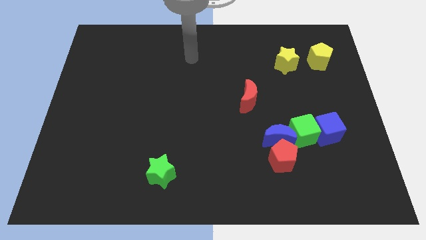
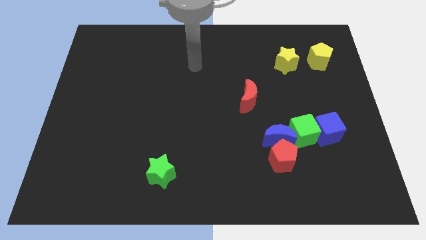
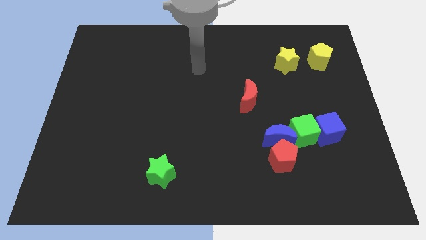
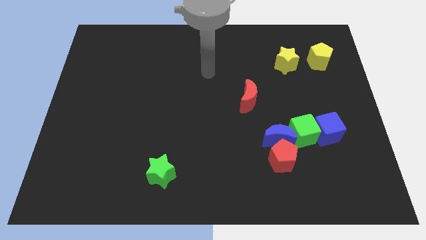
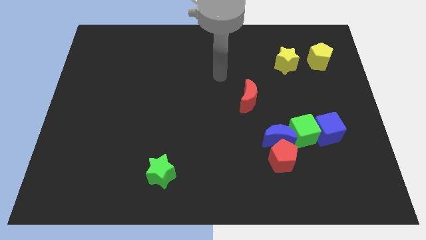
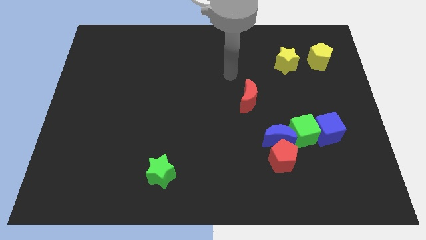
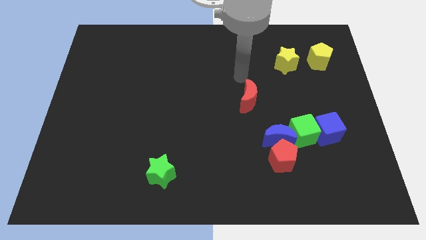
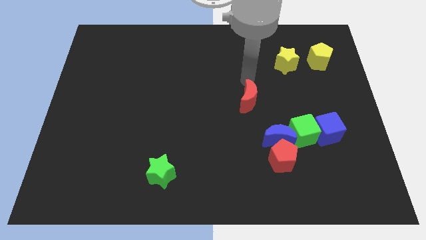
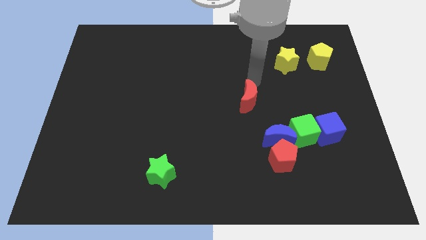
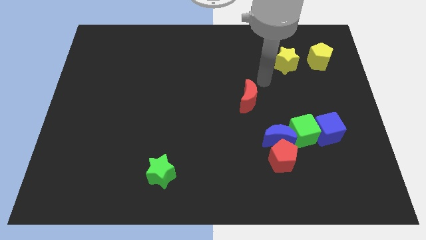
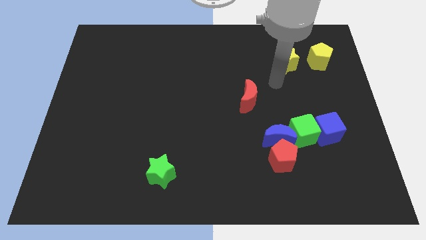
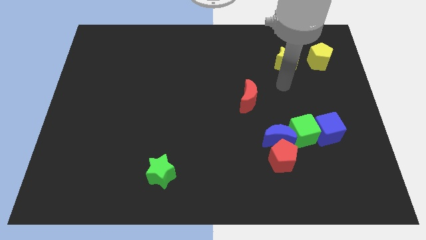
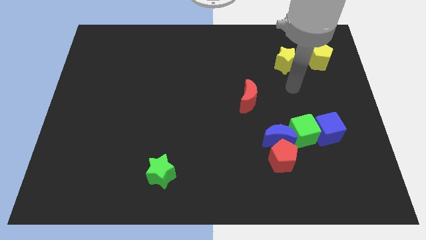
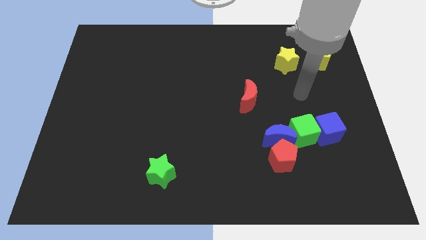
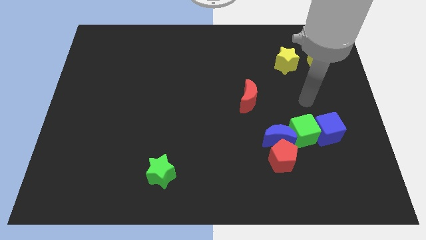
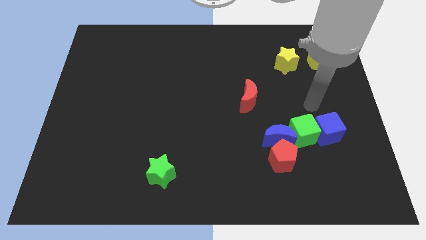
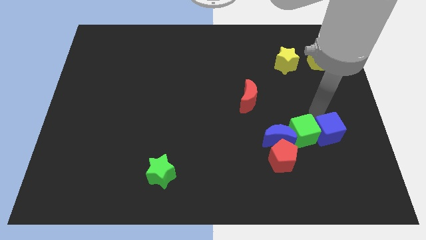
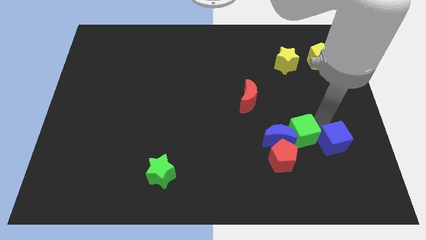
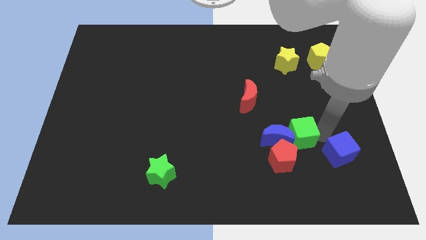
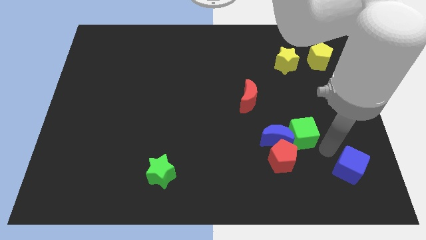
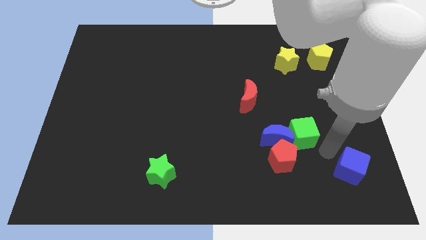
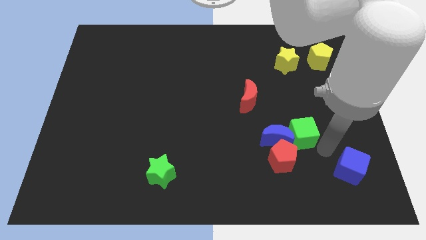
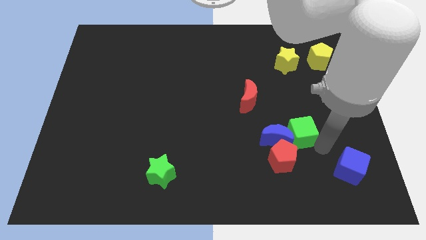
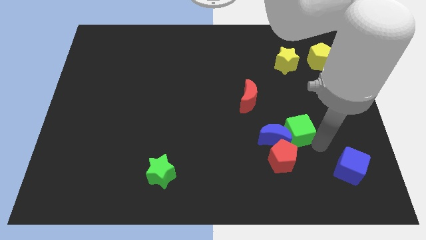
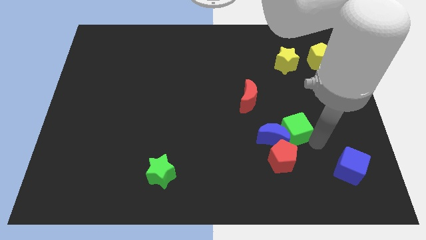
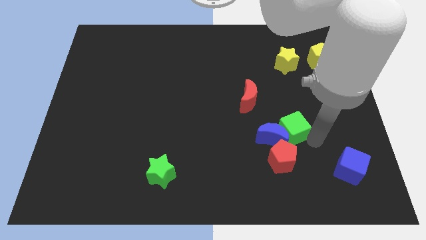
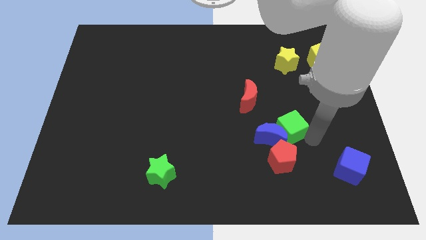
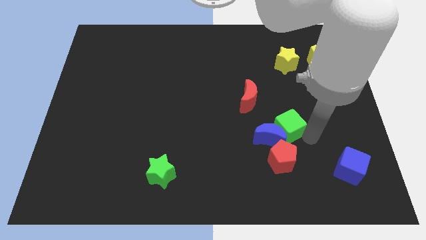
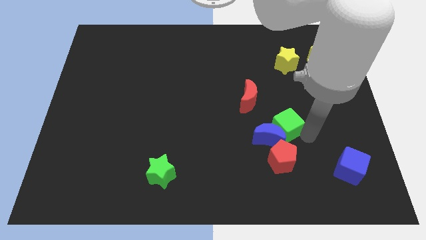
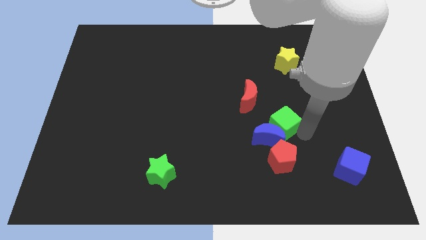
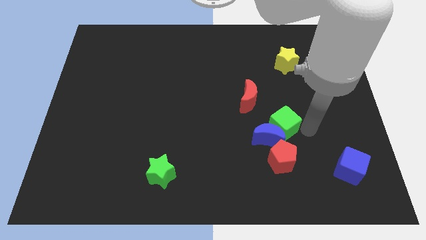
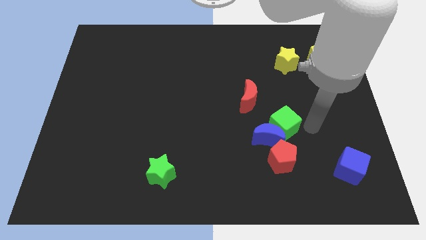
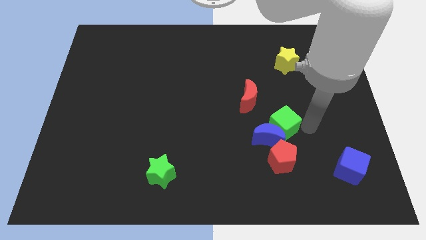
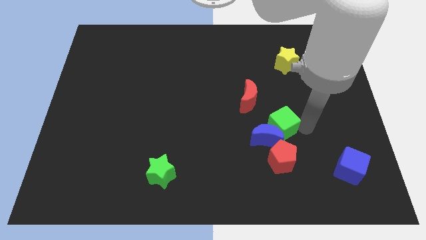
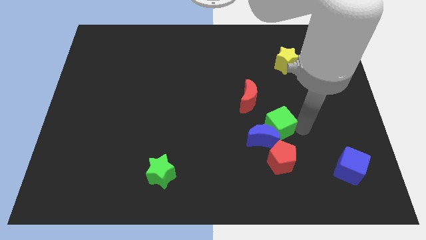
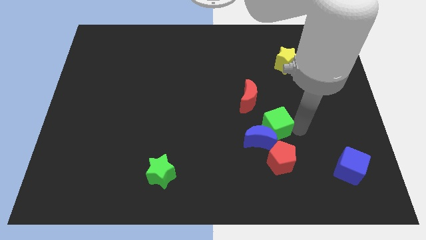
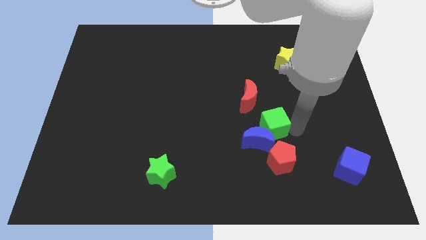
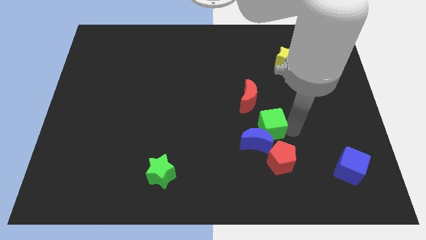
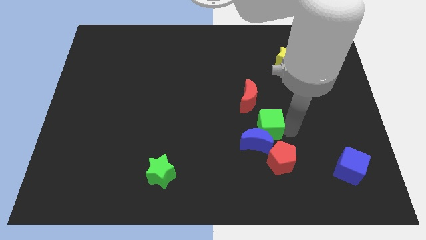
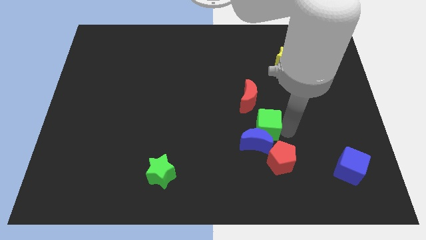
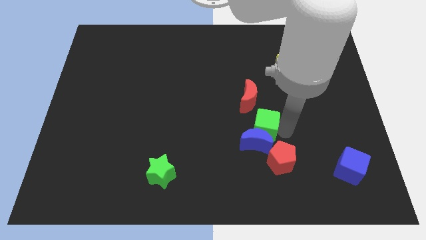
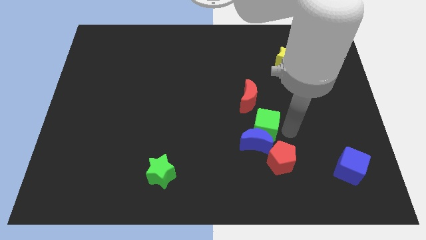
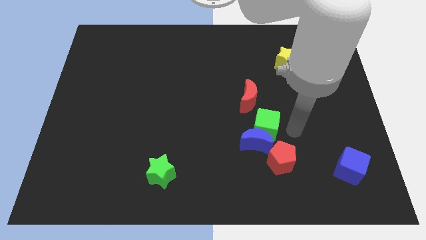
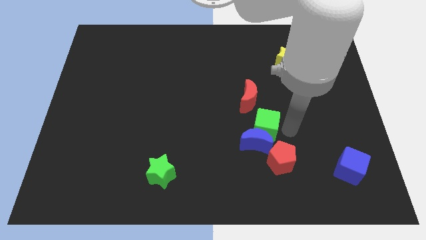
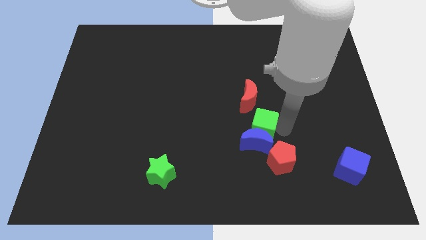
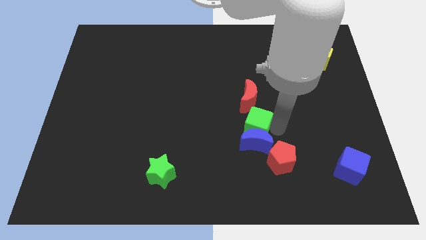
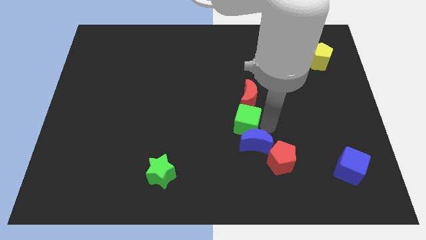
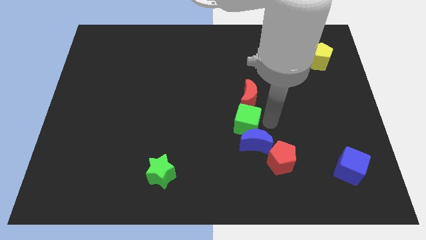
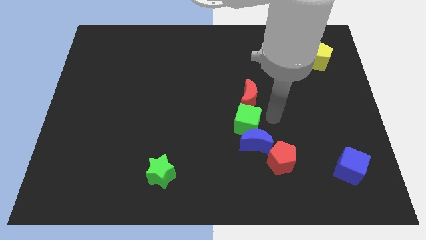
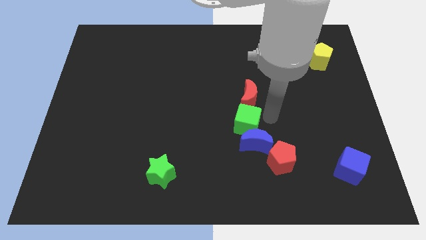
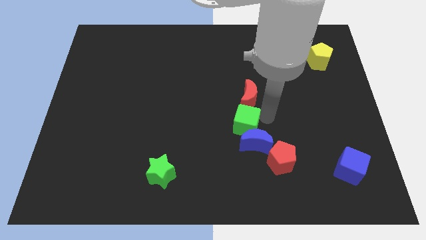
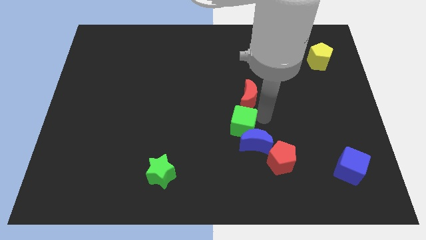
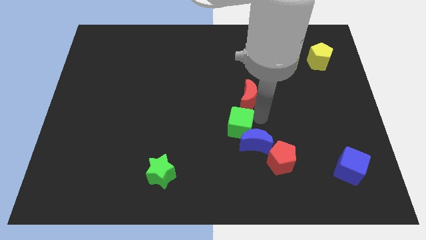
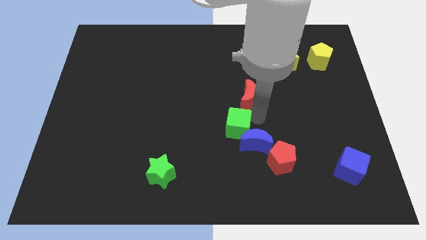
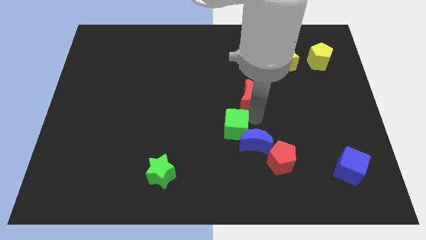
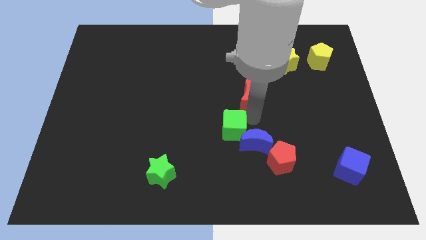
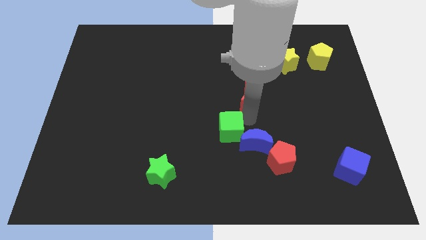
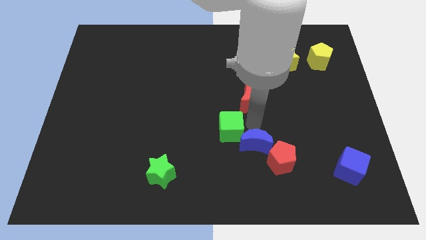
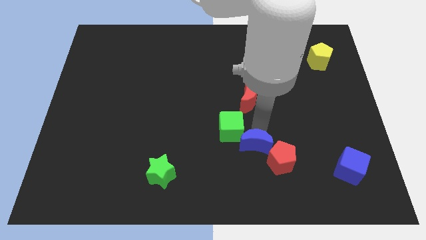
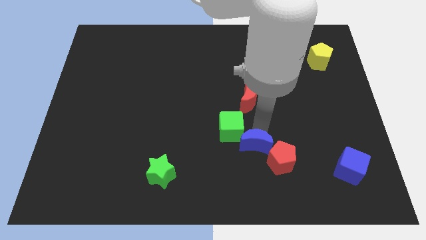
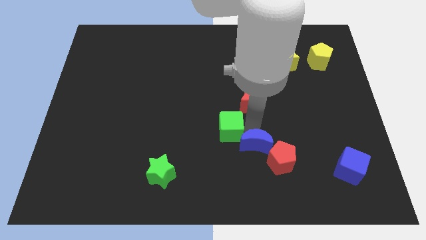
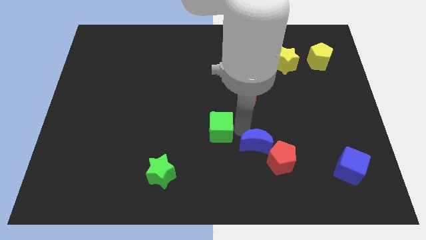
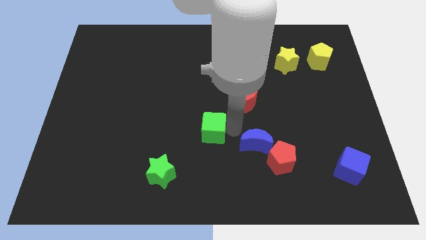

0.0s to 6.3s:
push the green cube left

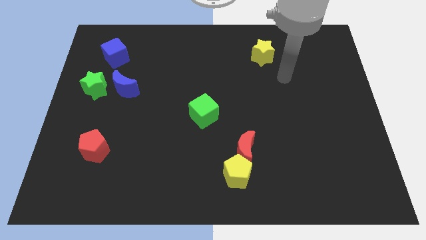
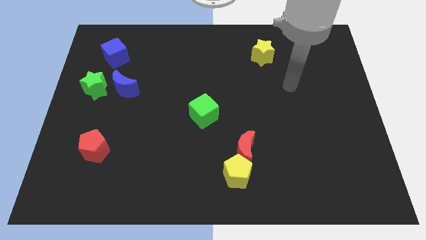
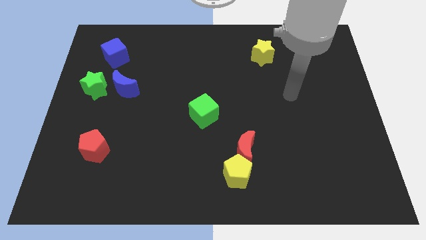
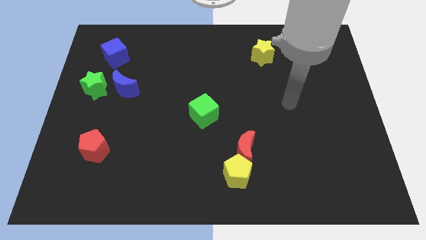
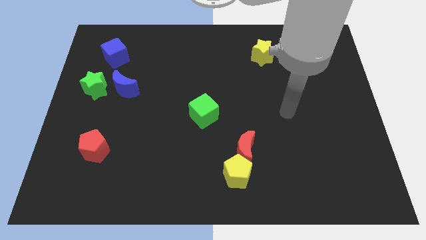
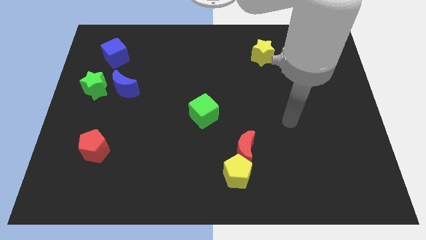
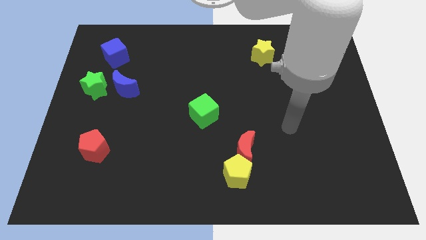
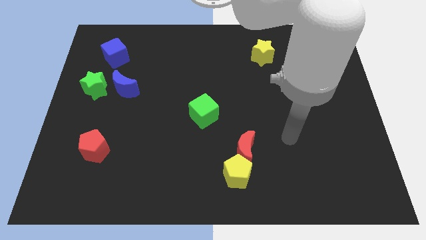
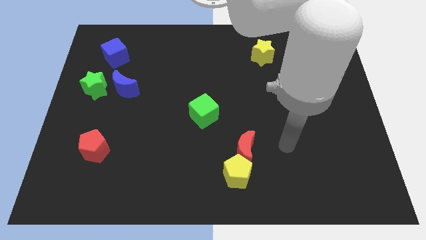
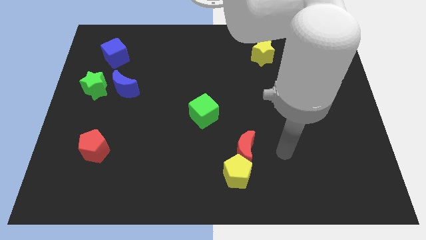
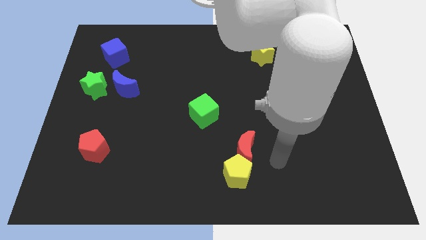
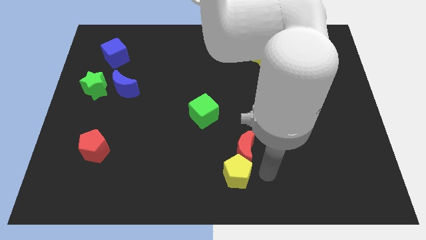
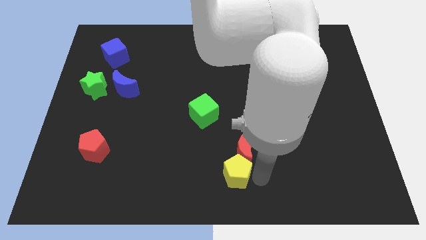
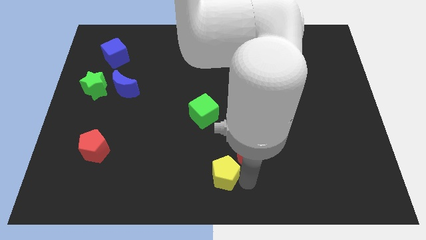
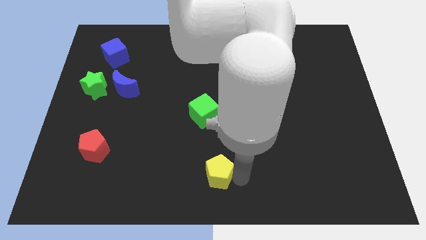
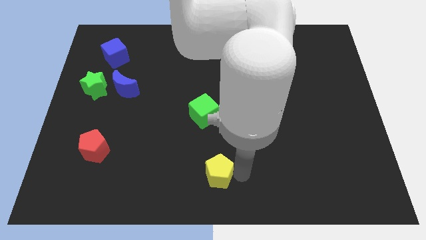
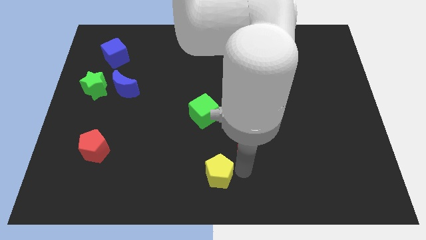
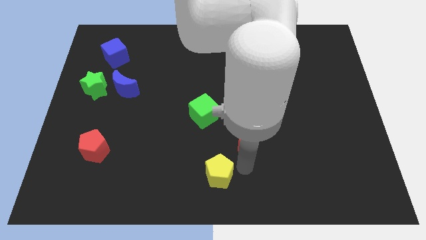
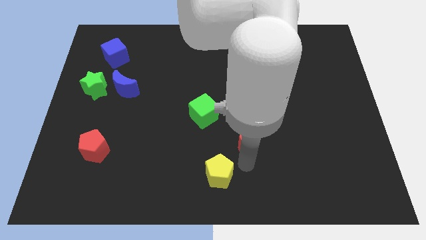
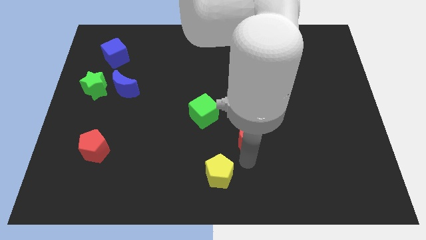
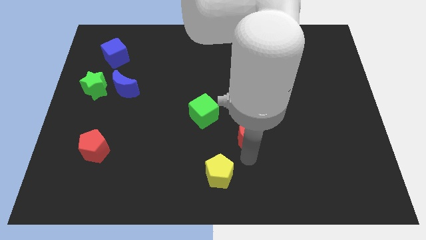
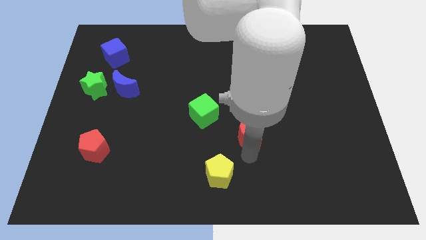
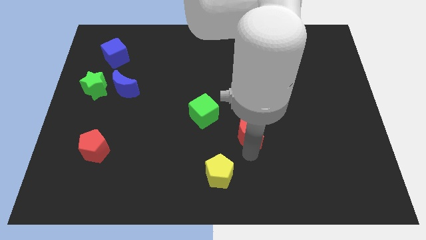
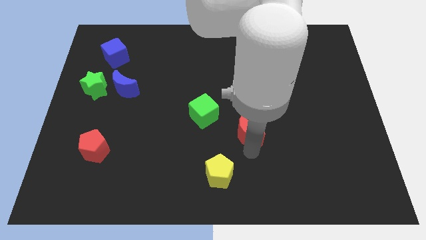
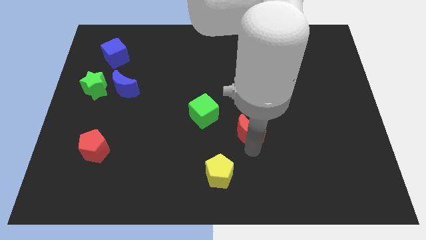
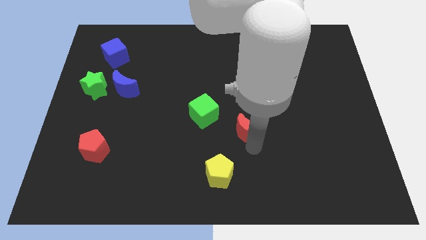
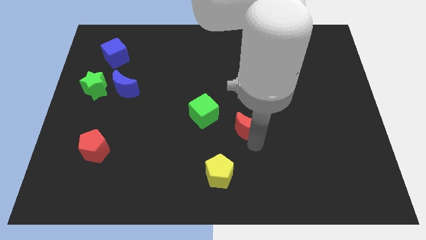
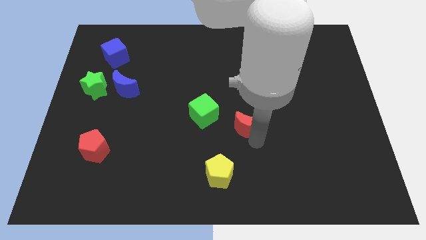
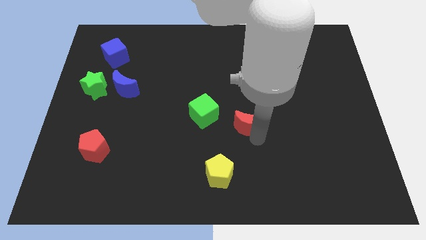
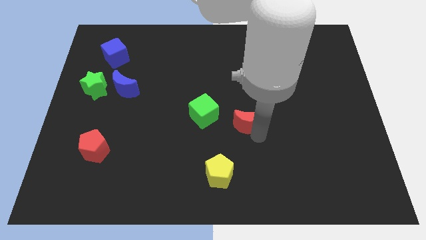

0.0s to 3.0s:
move the red moon upwards a bit
